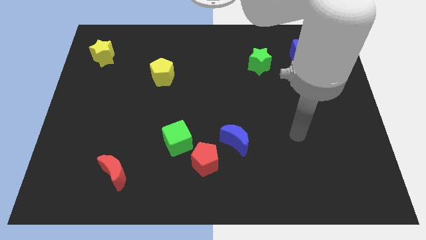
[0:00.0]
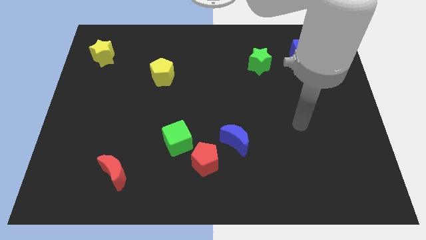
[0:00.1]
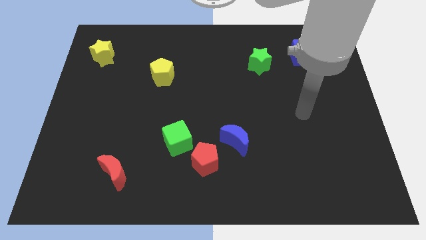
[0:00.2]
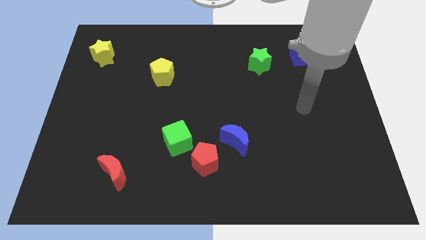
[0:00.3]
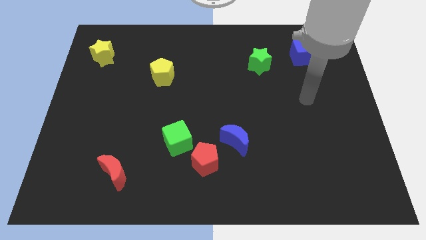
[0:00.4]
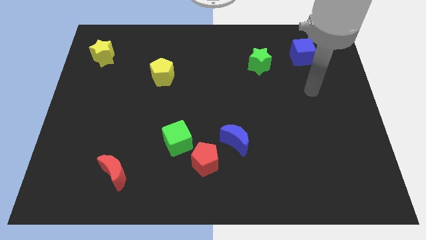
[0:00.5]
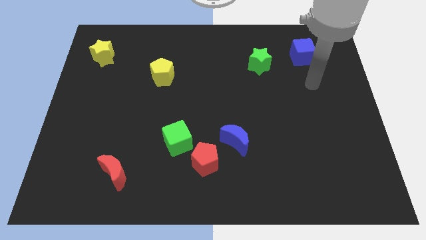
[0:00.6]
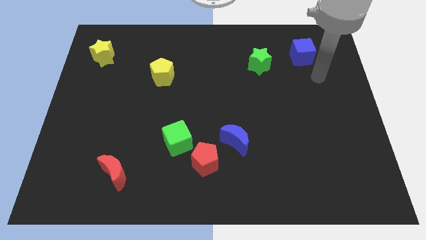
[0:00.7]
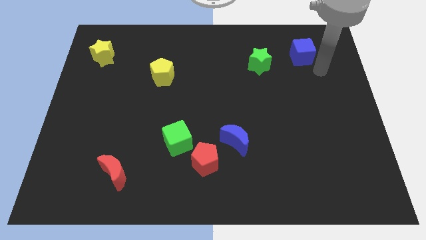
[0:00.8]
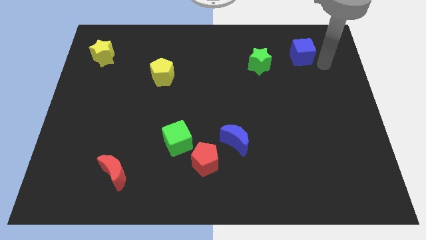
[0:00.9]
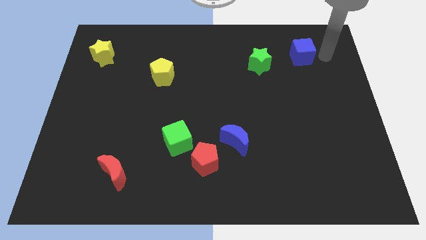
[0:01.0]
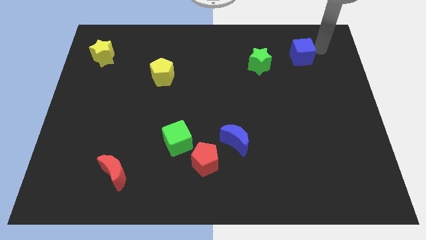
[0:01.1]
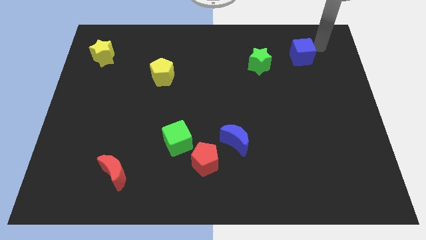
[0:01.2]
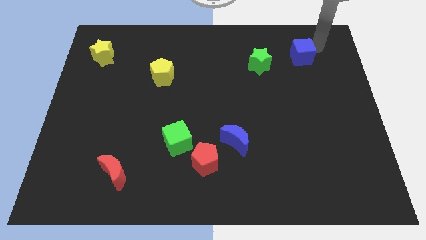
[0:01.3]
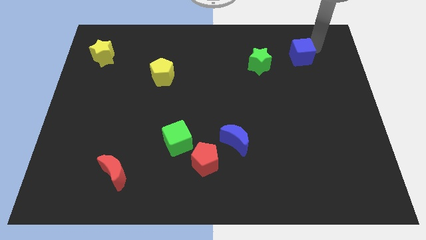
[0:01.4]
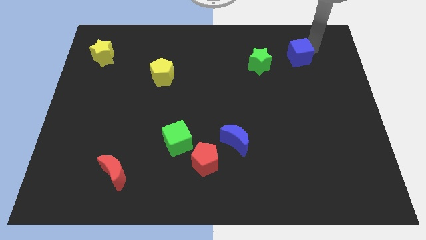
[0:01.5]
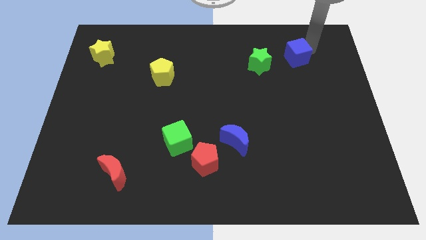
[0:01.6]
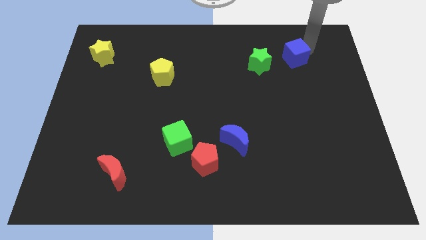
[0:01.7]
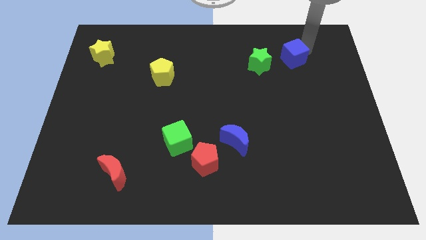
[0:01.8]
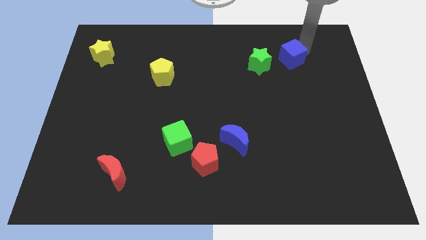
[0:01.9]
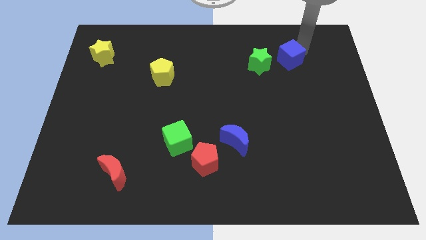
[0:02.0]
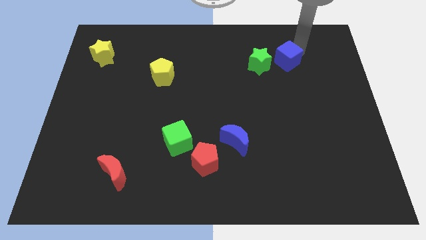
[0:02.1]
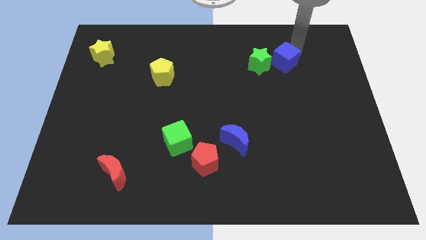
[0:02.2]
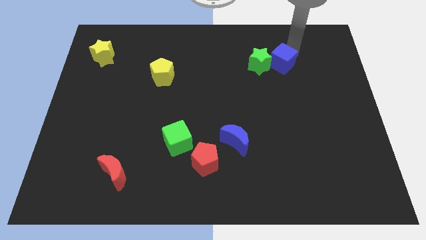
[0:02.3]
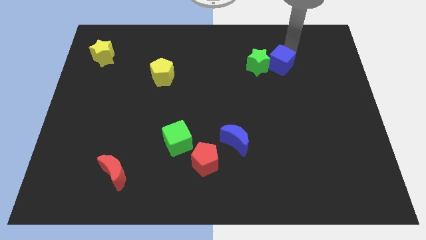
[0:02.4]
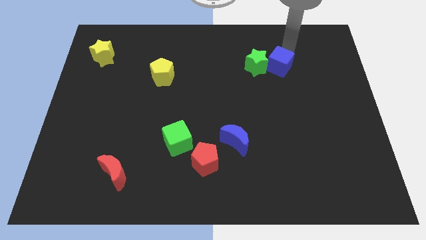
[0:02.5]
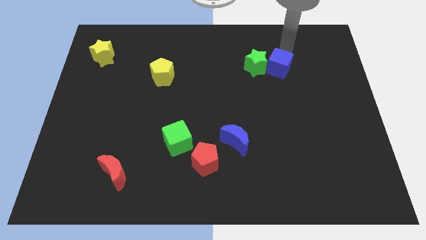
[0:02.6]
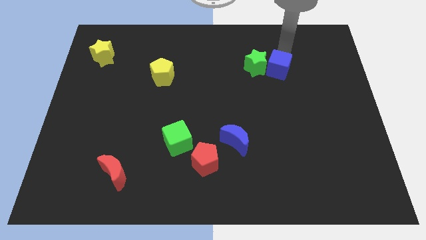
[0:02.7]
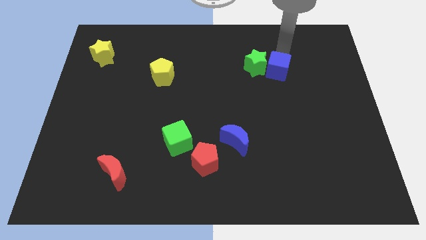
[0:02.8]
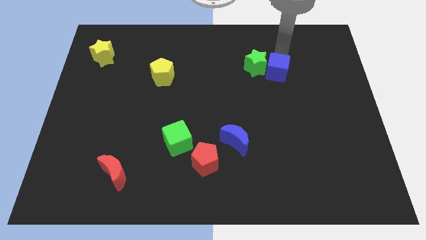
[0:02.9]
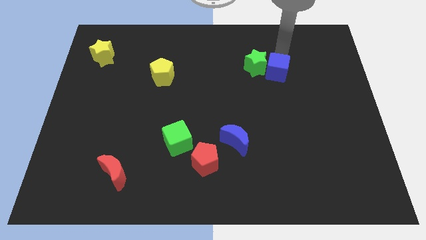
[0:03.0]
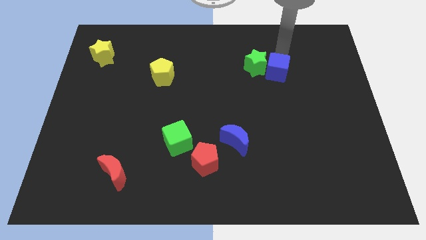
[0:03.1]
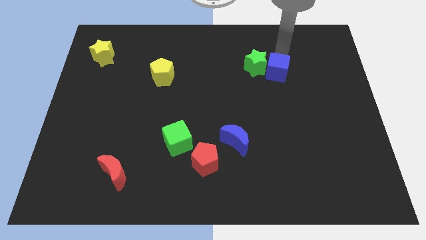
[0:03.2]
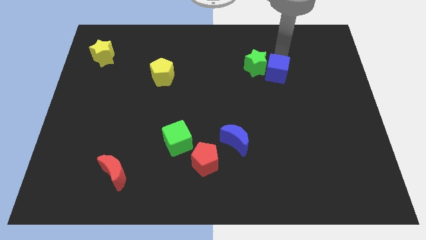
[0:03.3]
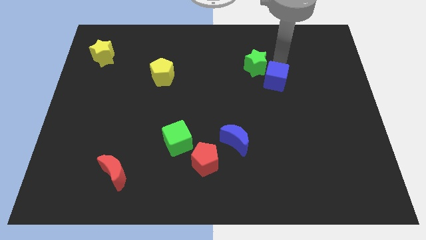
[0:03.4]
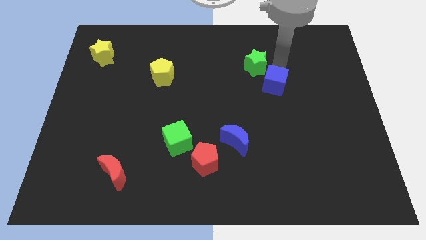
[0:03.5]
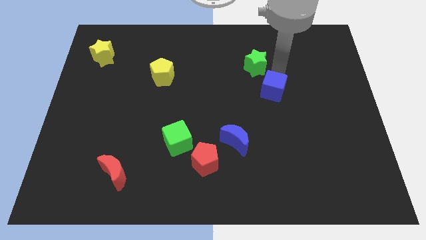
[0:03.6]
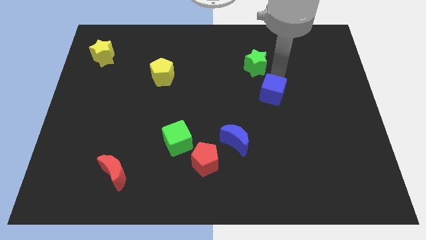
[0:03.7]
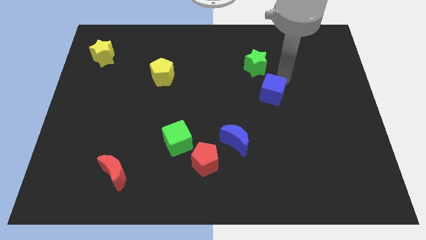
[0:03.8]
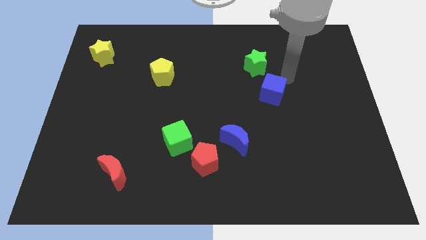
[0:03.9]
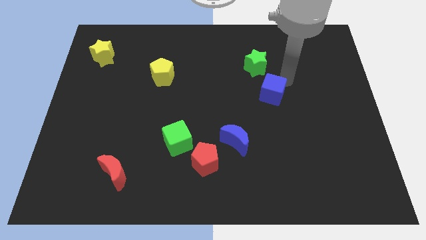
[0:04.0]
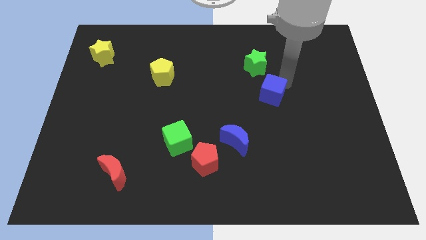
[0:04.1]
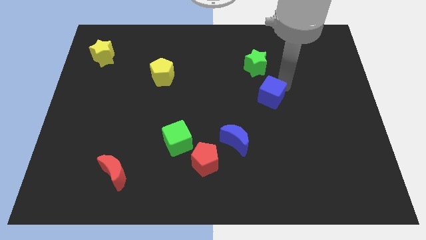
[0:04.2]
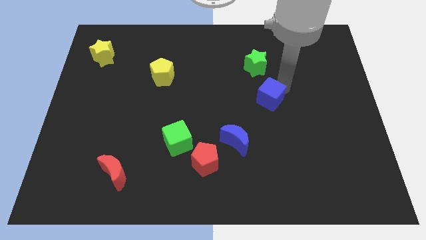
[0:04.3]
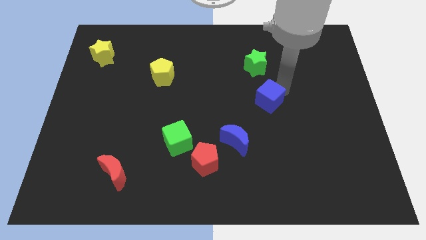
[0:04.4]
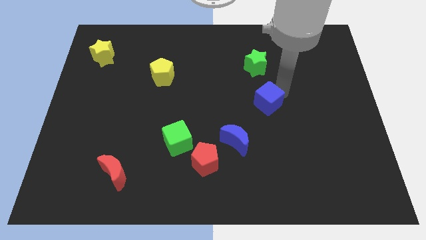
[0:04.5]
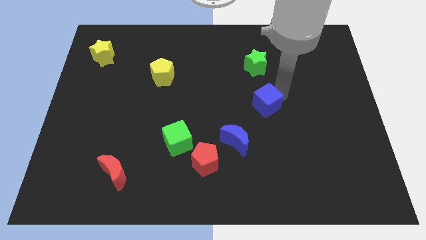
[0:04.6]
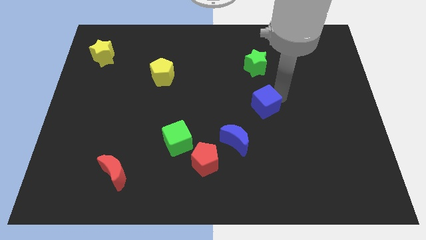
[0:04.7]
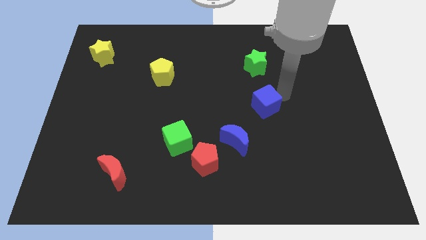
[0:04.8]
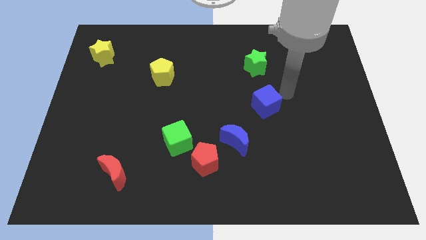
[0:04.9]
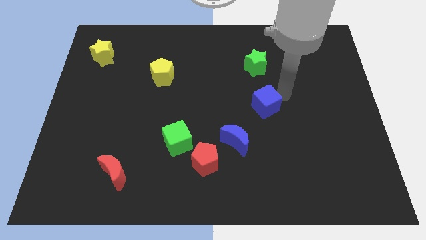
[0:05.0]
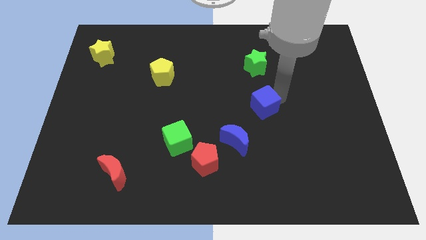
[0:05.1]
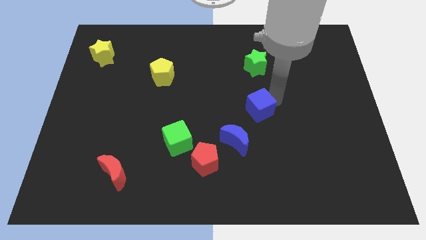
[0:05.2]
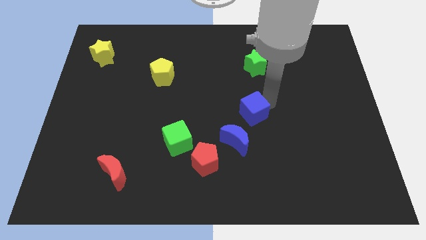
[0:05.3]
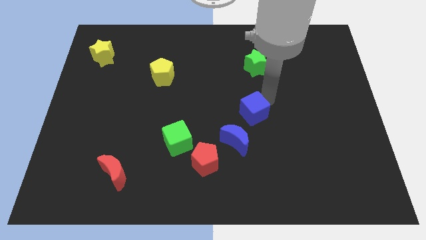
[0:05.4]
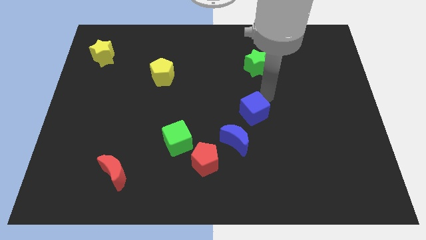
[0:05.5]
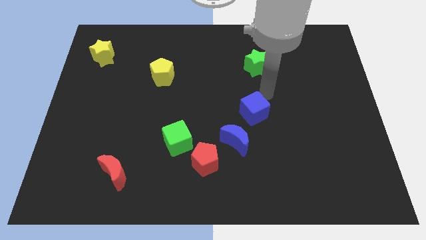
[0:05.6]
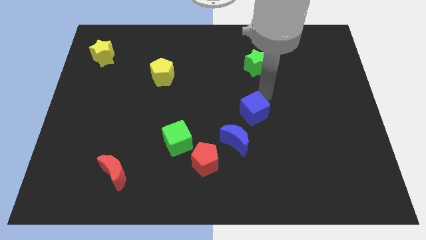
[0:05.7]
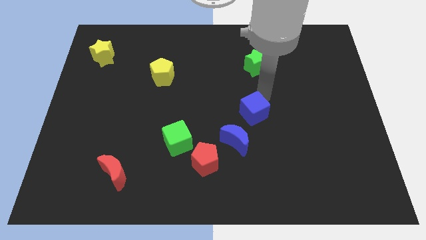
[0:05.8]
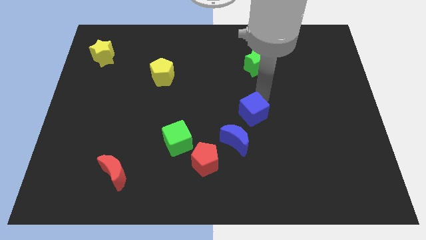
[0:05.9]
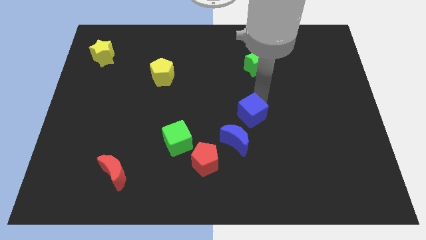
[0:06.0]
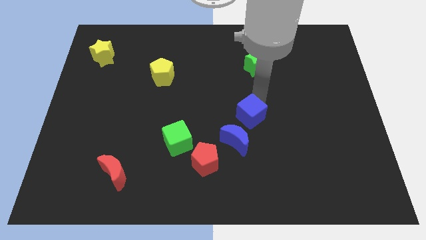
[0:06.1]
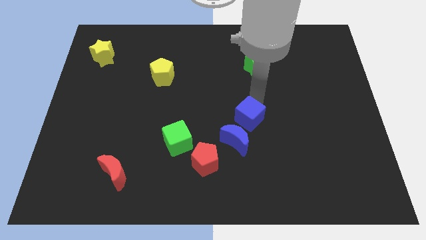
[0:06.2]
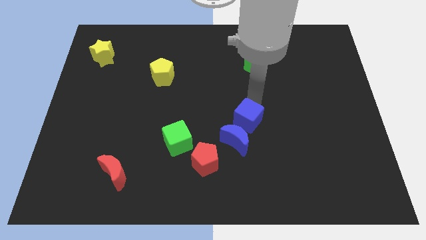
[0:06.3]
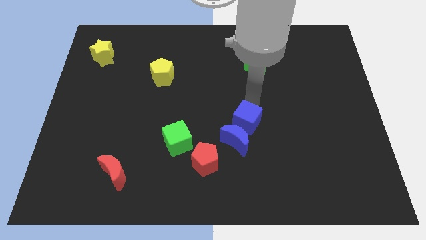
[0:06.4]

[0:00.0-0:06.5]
put the blue cube close to the blue moon
